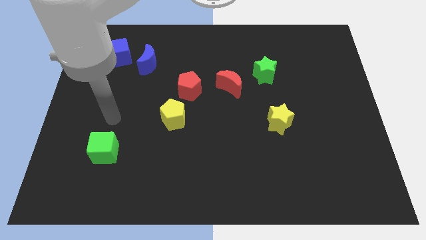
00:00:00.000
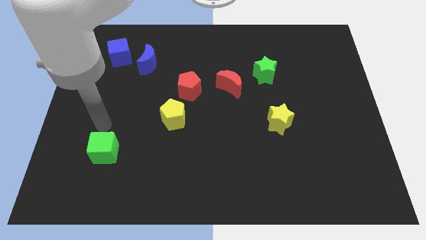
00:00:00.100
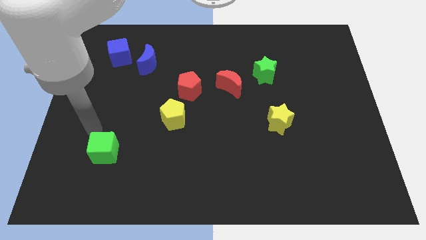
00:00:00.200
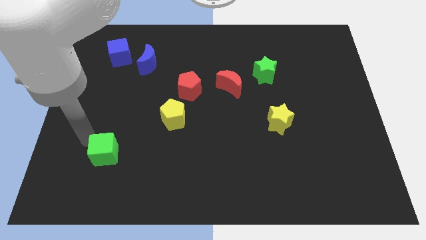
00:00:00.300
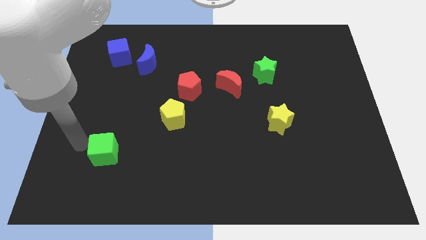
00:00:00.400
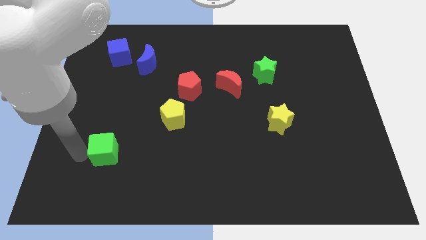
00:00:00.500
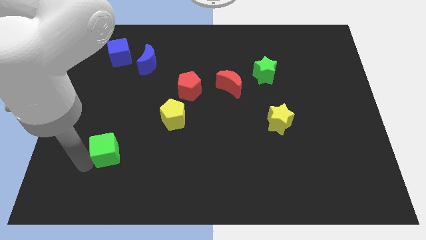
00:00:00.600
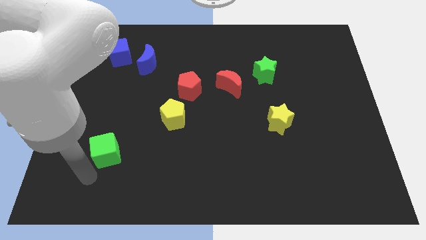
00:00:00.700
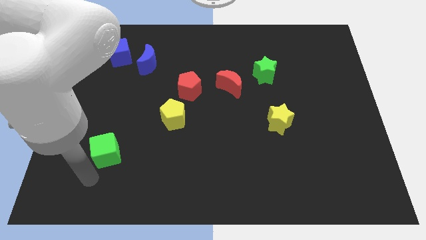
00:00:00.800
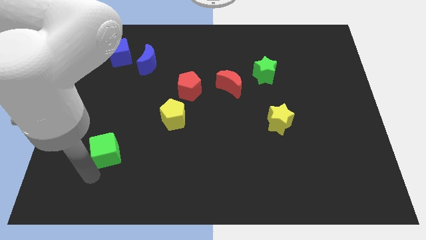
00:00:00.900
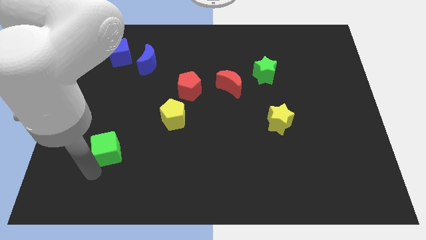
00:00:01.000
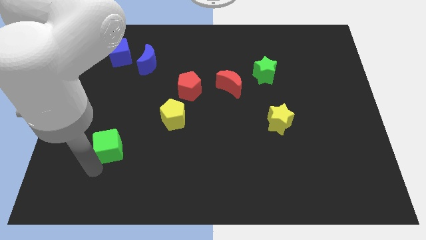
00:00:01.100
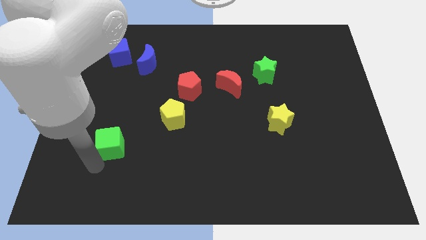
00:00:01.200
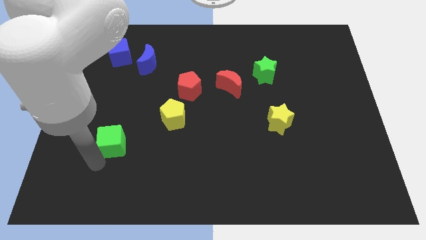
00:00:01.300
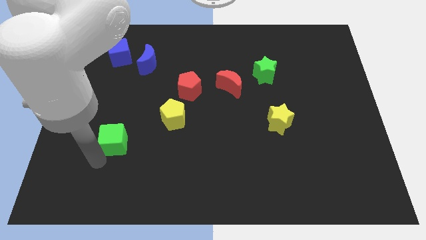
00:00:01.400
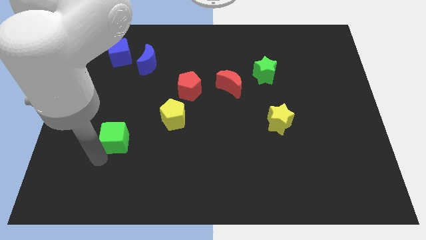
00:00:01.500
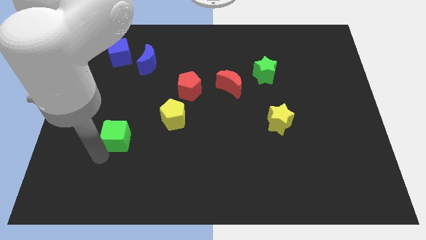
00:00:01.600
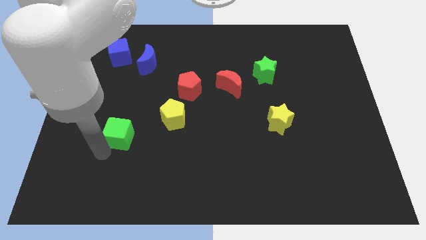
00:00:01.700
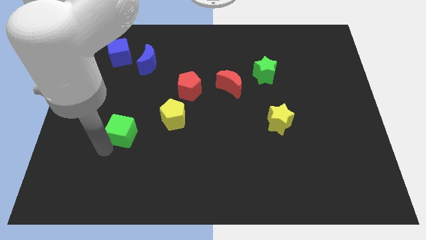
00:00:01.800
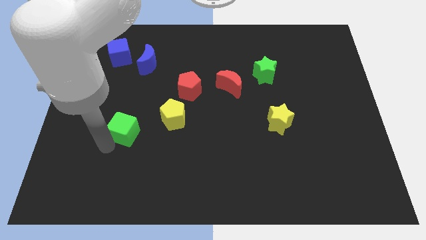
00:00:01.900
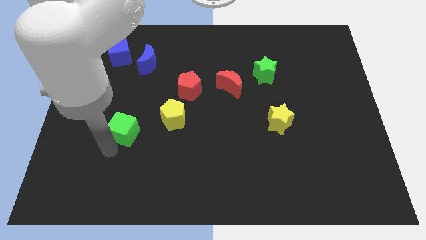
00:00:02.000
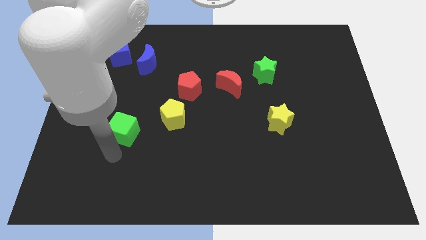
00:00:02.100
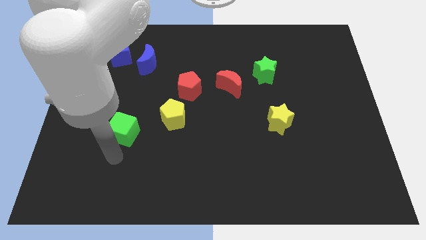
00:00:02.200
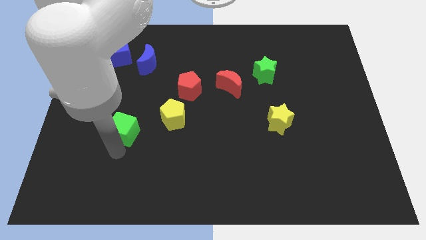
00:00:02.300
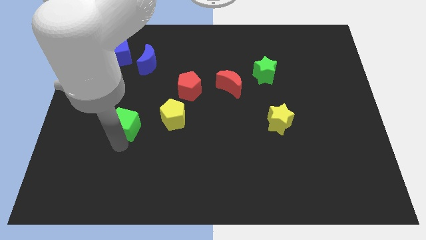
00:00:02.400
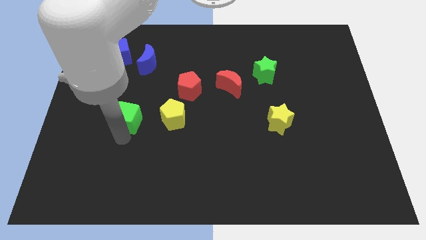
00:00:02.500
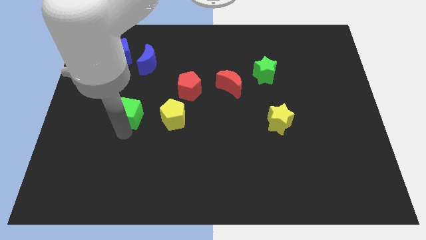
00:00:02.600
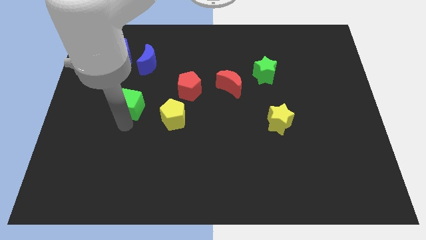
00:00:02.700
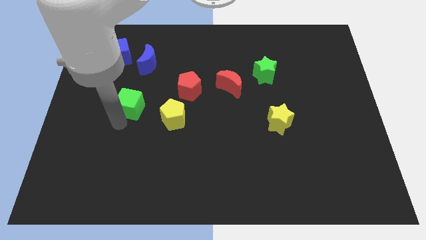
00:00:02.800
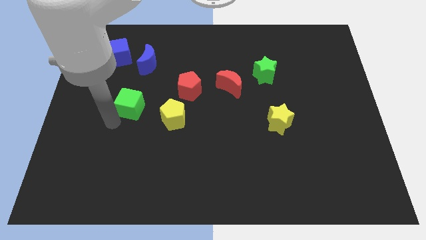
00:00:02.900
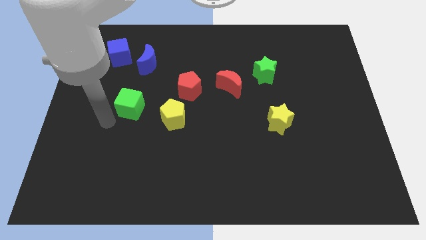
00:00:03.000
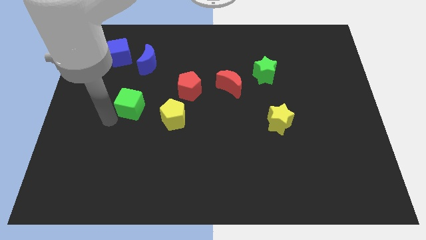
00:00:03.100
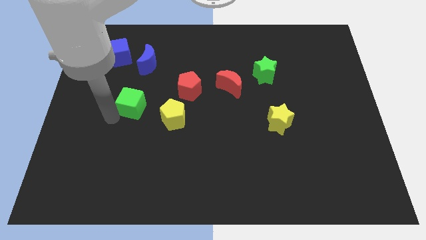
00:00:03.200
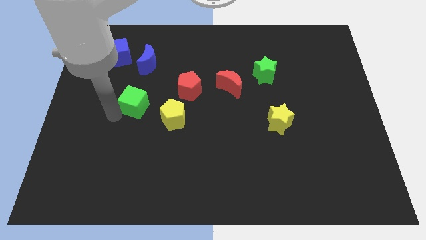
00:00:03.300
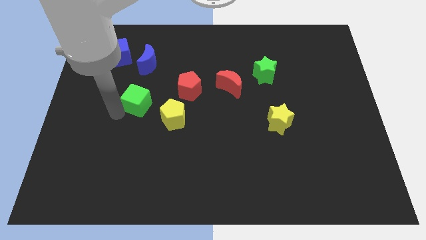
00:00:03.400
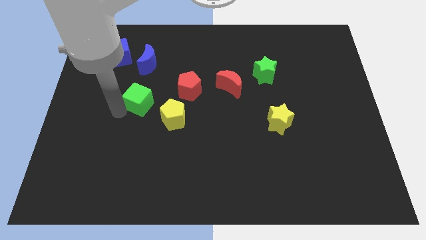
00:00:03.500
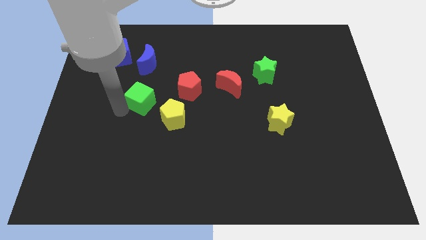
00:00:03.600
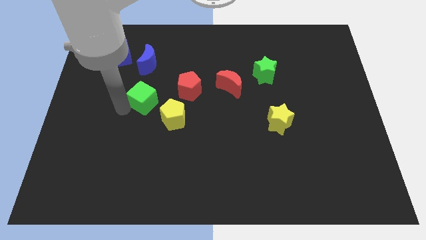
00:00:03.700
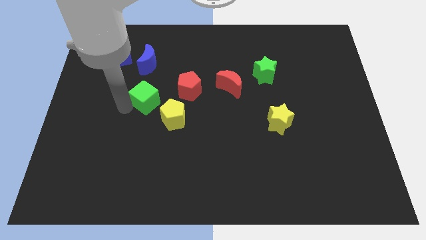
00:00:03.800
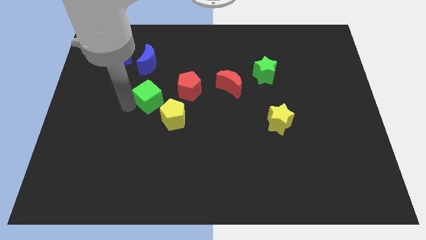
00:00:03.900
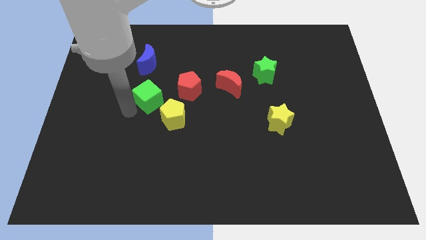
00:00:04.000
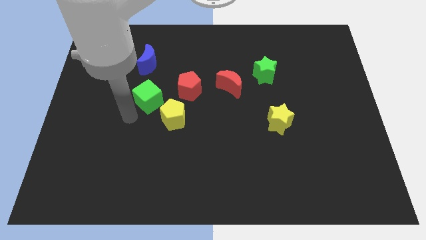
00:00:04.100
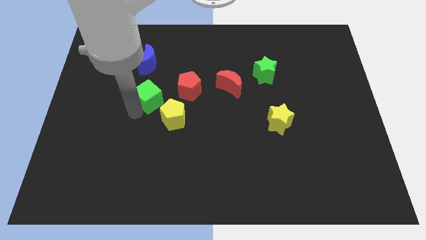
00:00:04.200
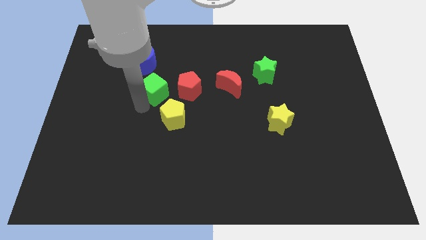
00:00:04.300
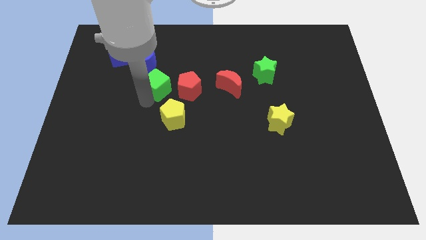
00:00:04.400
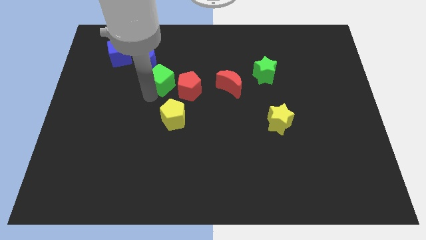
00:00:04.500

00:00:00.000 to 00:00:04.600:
move the green cube upwards and to the right

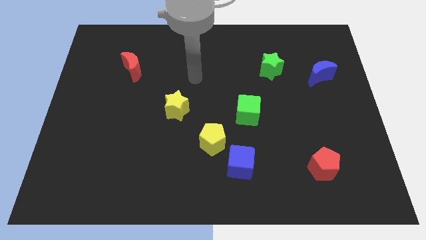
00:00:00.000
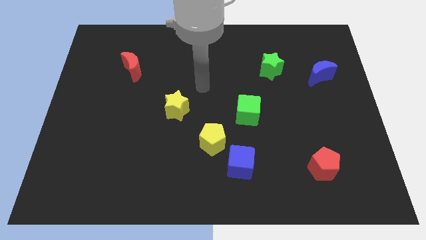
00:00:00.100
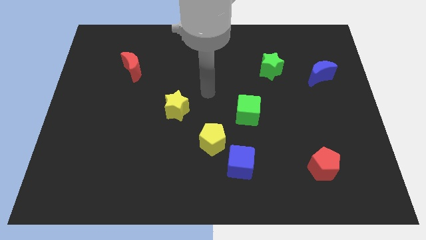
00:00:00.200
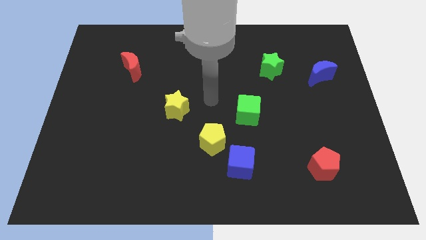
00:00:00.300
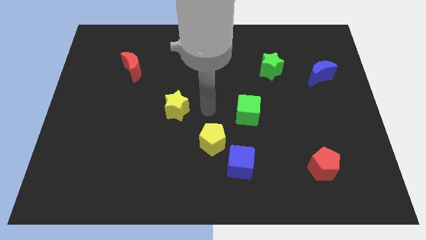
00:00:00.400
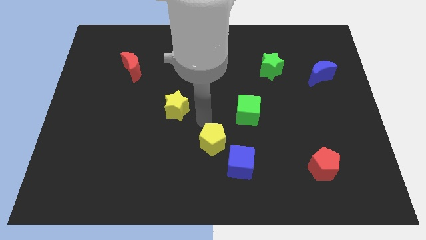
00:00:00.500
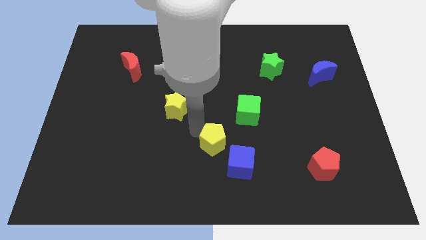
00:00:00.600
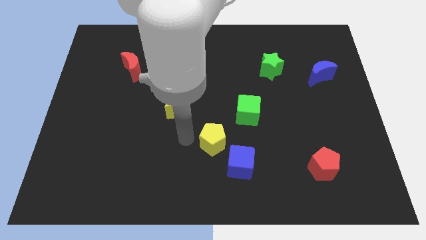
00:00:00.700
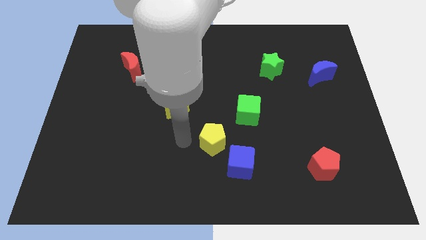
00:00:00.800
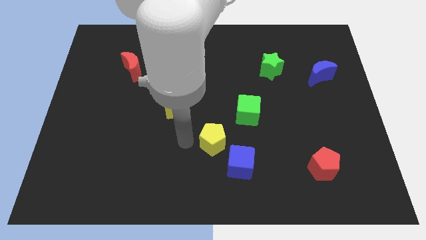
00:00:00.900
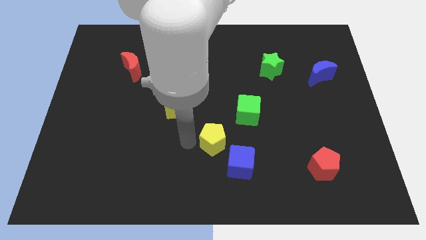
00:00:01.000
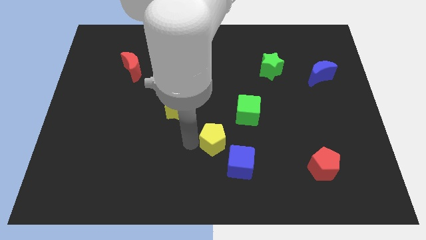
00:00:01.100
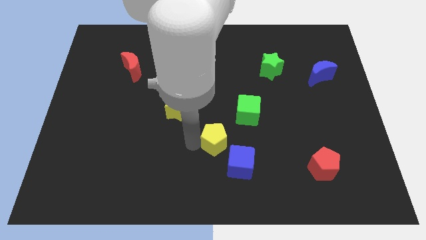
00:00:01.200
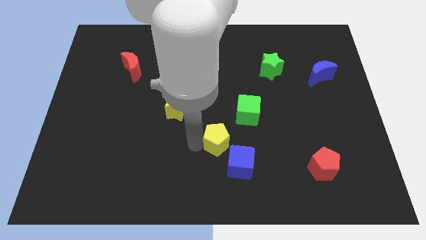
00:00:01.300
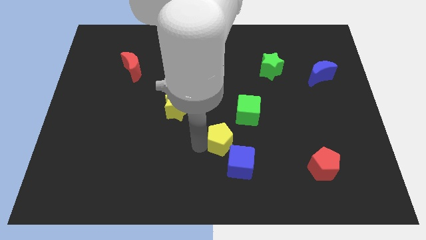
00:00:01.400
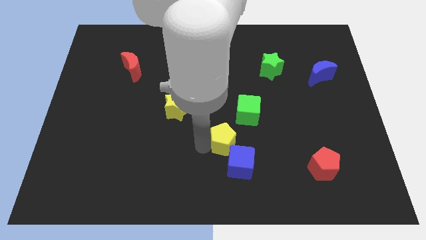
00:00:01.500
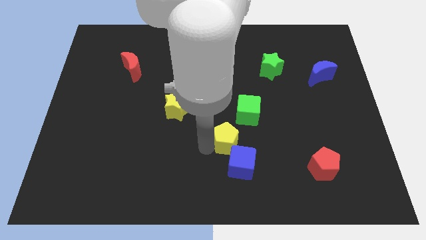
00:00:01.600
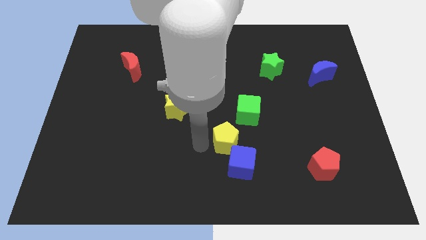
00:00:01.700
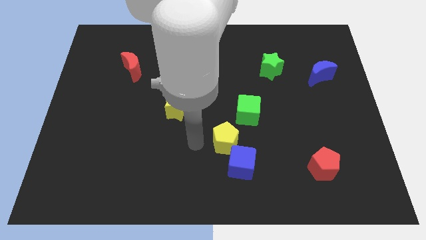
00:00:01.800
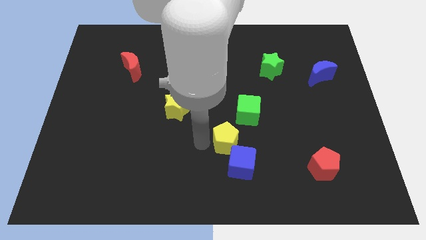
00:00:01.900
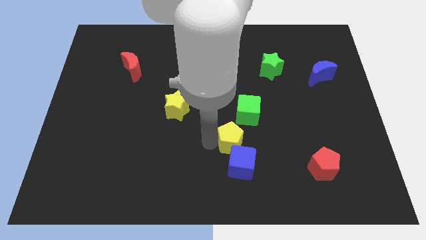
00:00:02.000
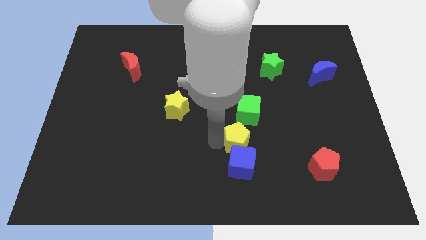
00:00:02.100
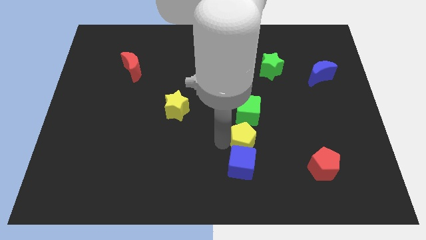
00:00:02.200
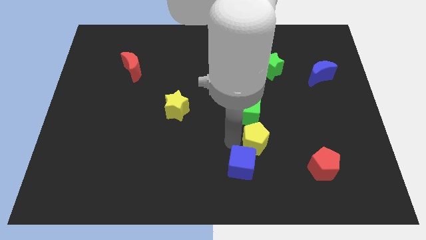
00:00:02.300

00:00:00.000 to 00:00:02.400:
slide the yellow pentagon a little bit to the right

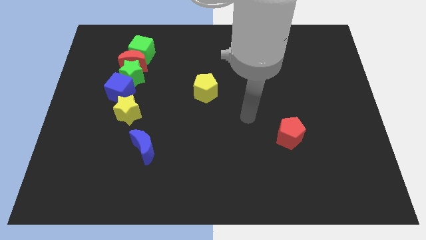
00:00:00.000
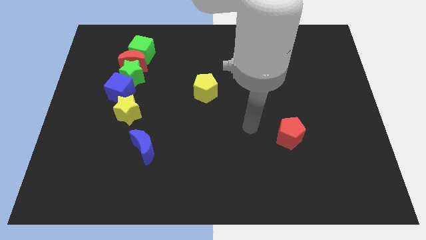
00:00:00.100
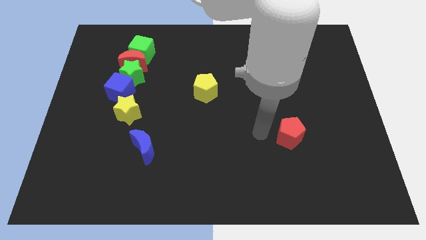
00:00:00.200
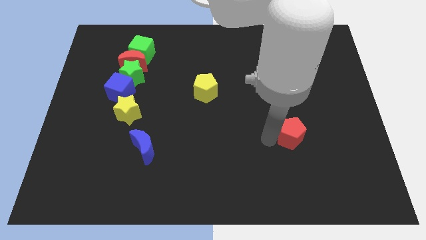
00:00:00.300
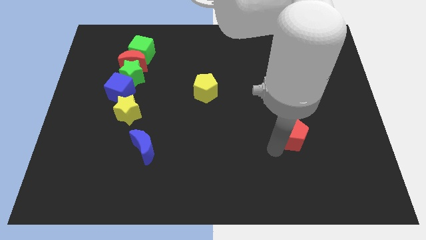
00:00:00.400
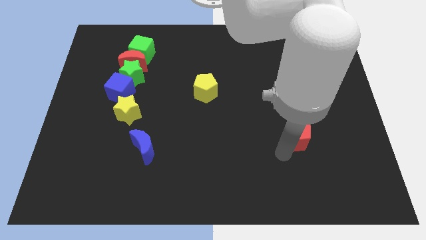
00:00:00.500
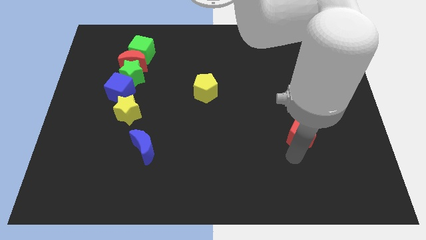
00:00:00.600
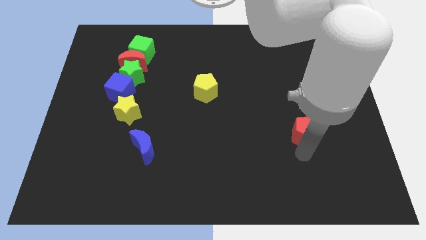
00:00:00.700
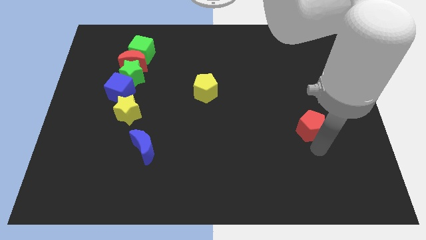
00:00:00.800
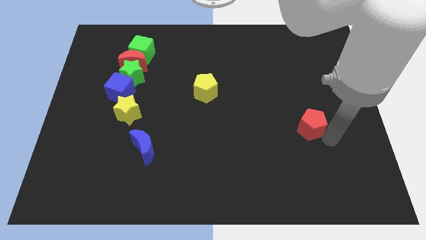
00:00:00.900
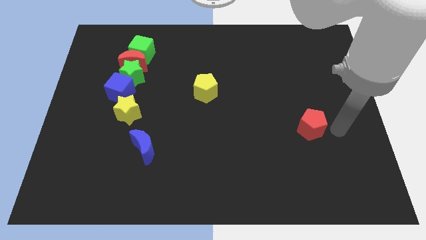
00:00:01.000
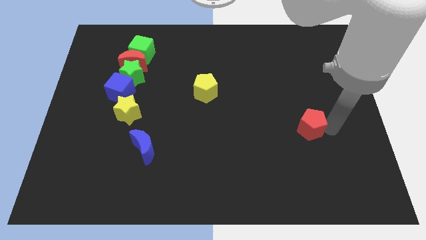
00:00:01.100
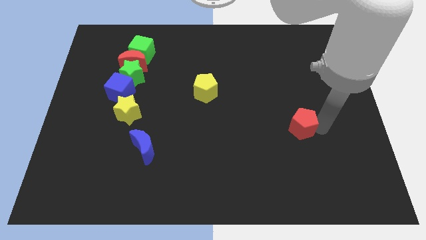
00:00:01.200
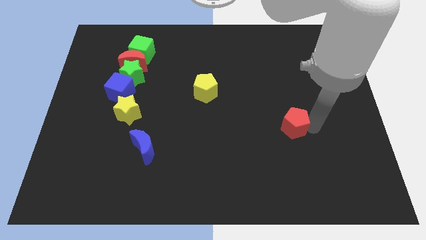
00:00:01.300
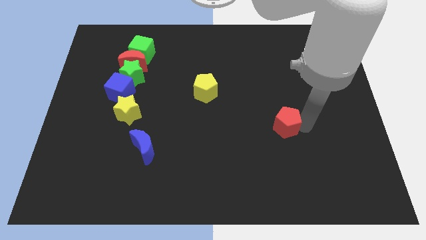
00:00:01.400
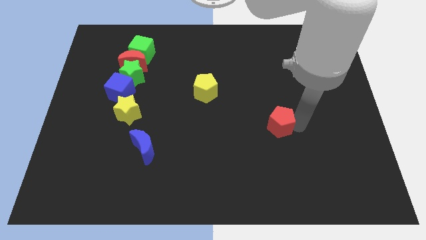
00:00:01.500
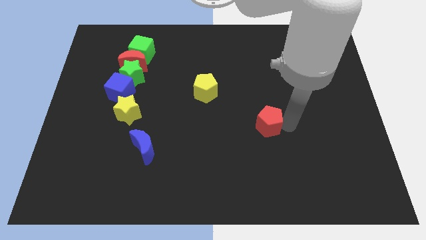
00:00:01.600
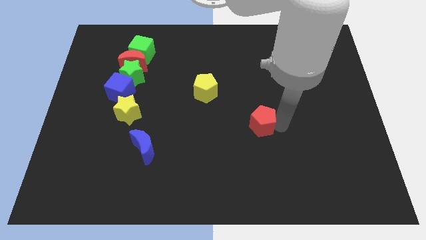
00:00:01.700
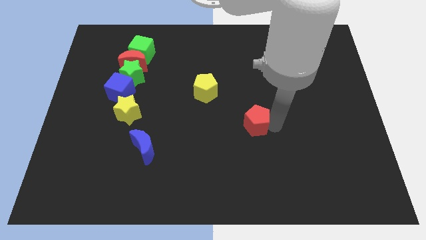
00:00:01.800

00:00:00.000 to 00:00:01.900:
slide the red pentagon a little bit up and then left
